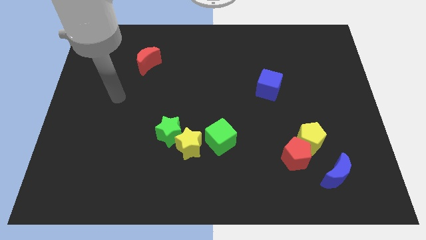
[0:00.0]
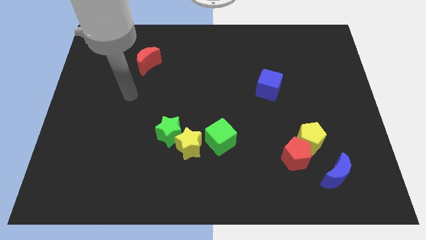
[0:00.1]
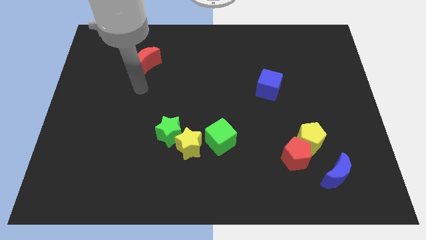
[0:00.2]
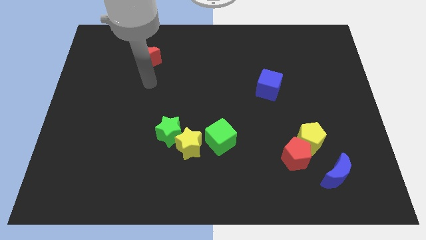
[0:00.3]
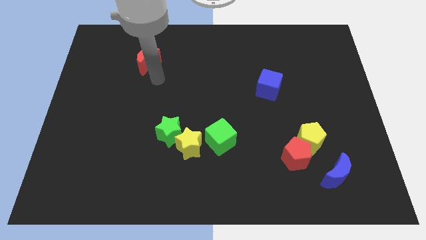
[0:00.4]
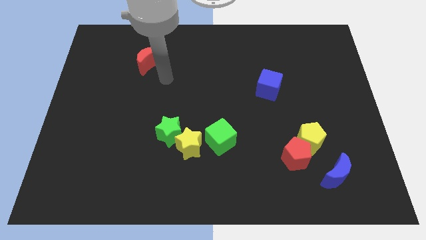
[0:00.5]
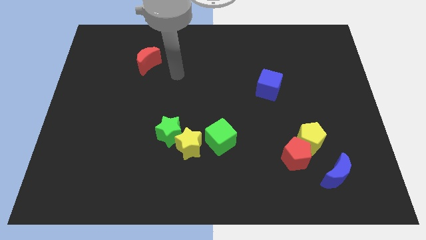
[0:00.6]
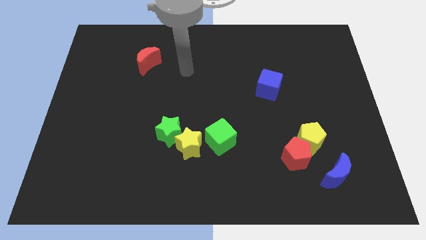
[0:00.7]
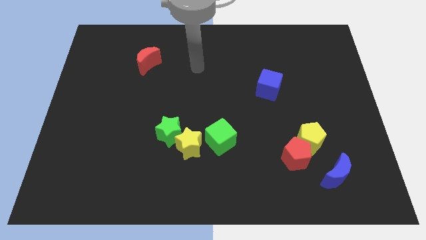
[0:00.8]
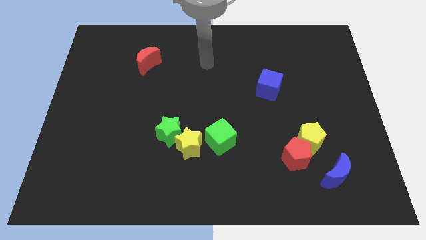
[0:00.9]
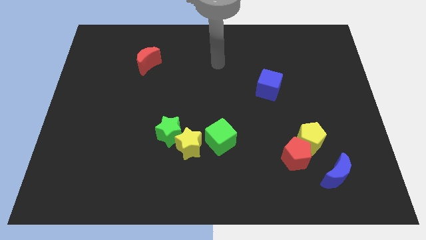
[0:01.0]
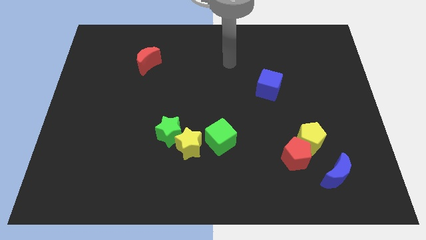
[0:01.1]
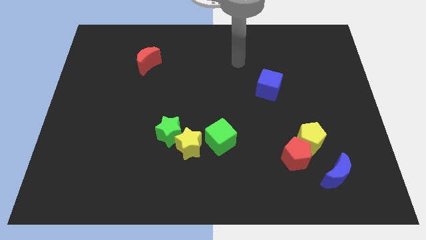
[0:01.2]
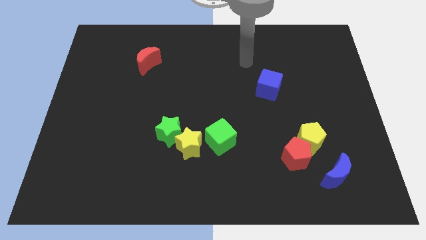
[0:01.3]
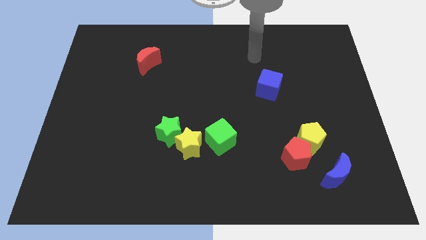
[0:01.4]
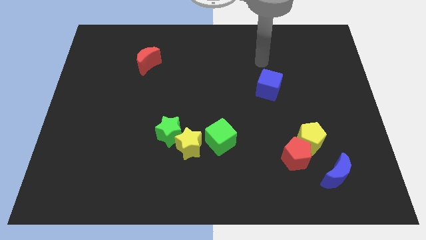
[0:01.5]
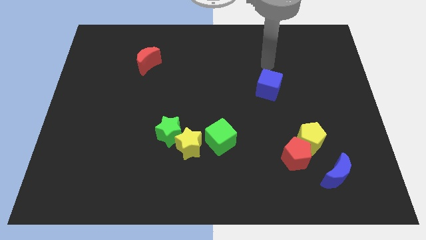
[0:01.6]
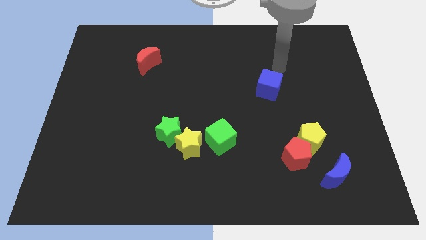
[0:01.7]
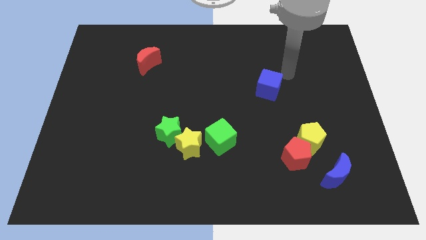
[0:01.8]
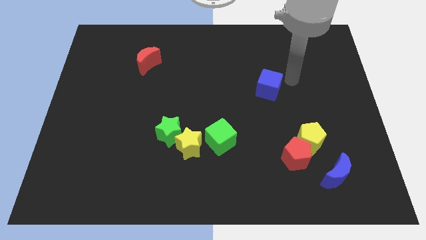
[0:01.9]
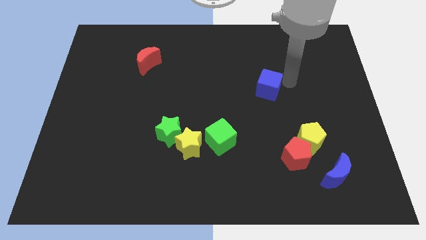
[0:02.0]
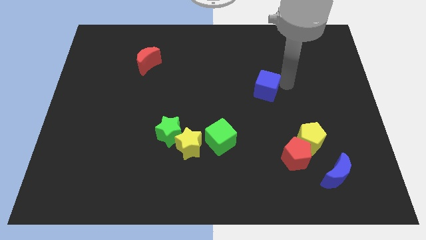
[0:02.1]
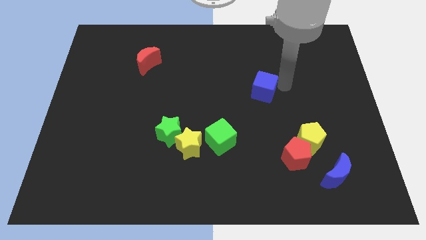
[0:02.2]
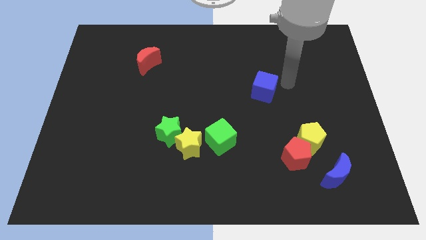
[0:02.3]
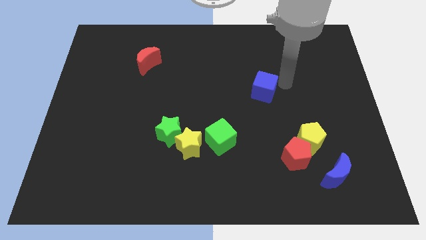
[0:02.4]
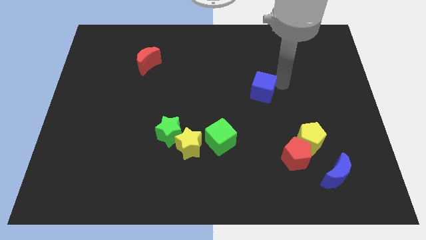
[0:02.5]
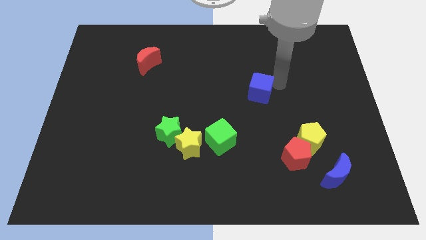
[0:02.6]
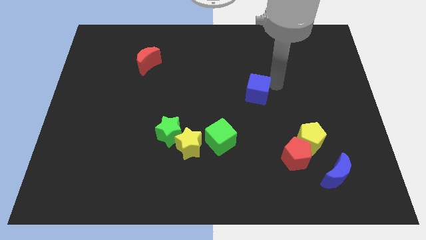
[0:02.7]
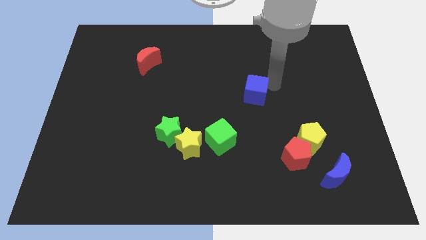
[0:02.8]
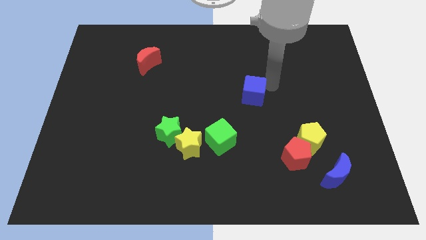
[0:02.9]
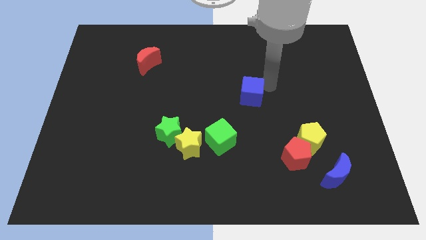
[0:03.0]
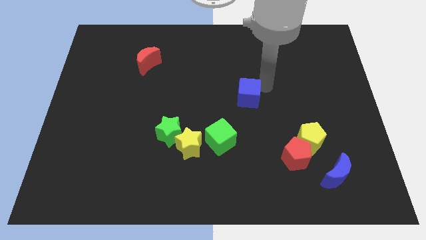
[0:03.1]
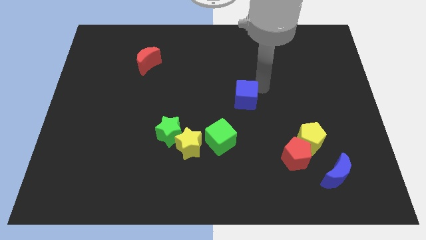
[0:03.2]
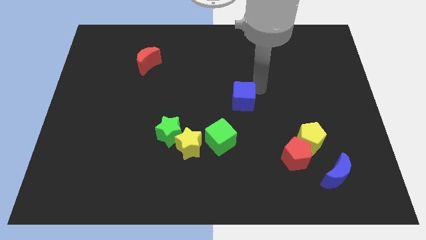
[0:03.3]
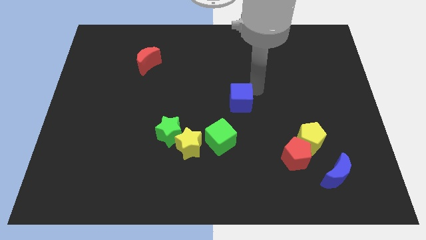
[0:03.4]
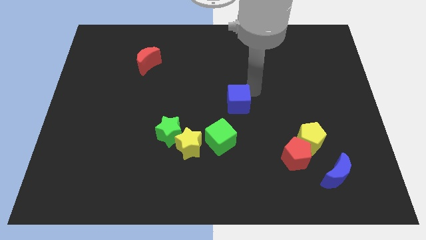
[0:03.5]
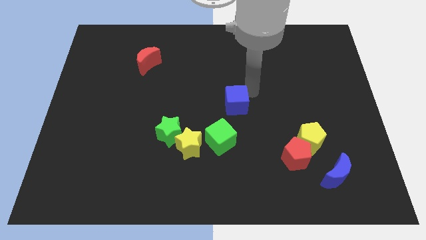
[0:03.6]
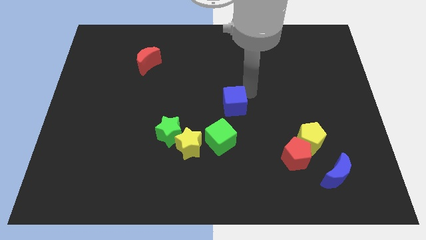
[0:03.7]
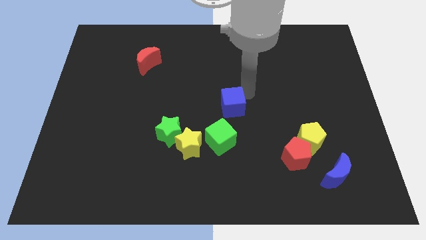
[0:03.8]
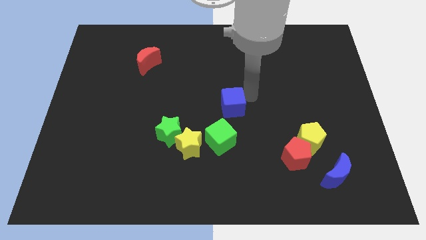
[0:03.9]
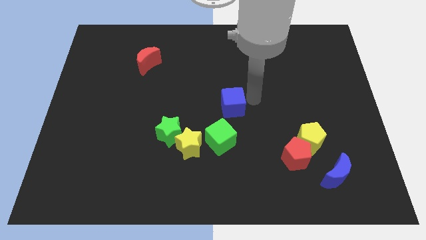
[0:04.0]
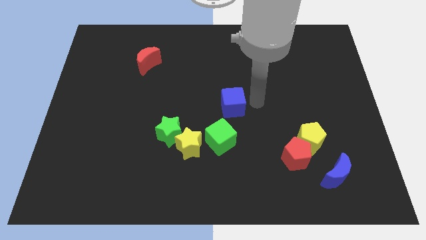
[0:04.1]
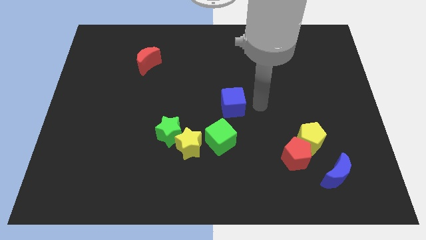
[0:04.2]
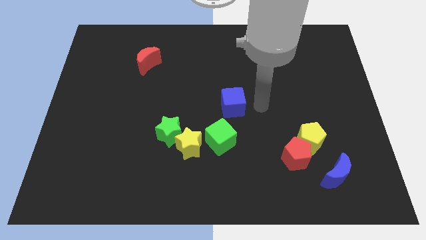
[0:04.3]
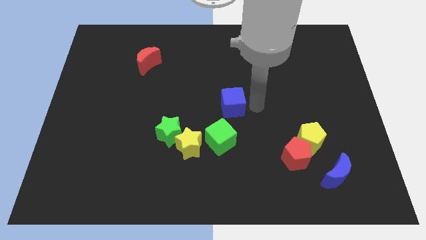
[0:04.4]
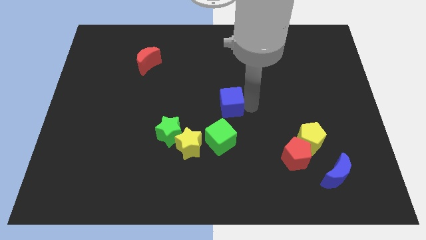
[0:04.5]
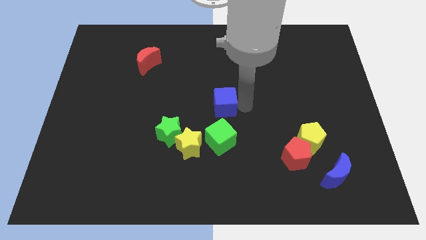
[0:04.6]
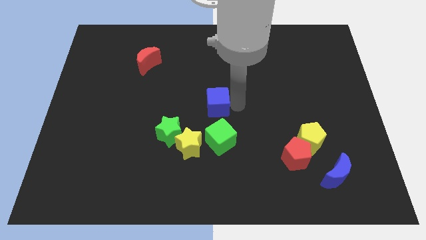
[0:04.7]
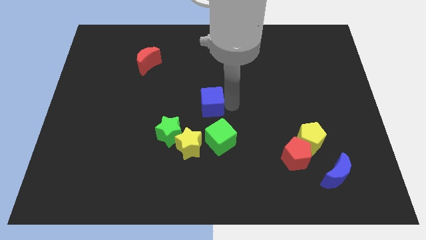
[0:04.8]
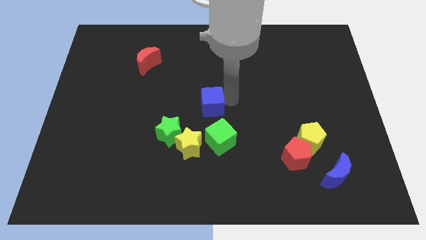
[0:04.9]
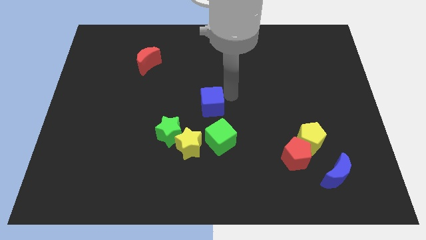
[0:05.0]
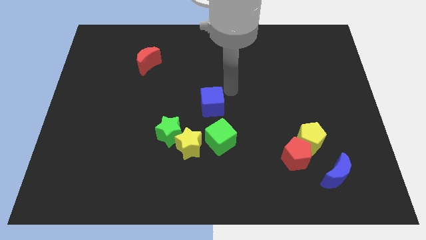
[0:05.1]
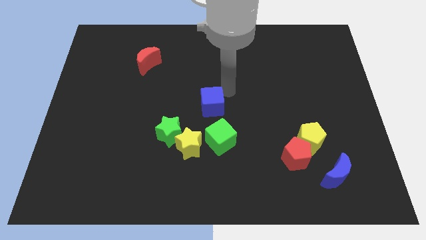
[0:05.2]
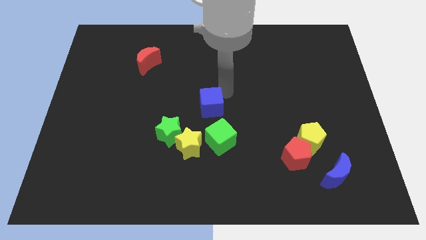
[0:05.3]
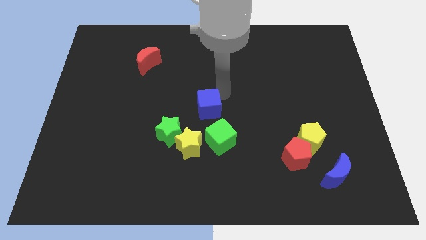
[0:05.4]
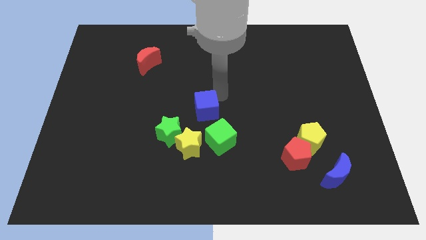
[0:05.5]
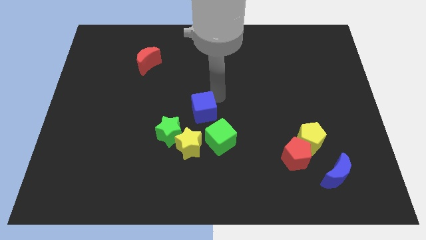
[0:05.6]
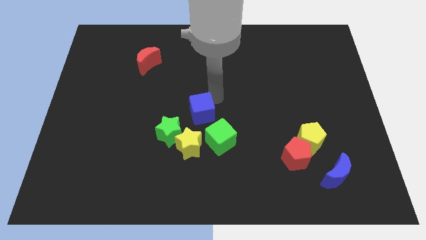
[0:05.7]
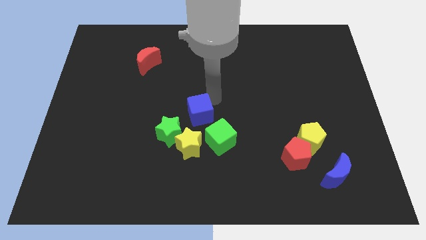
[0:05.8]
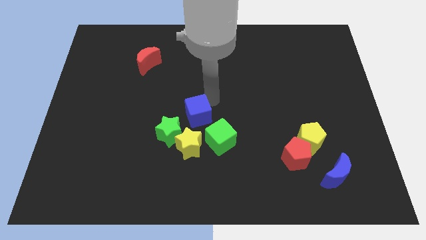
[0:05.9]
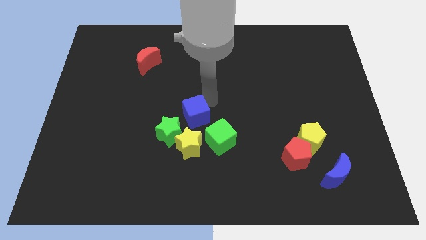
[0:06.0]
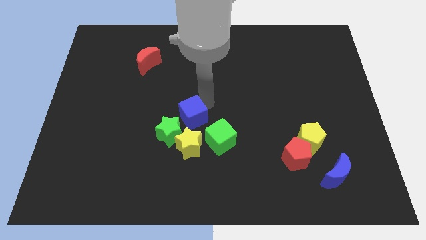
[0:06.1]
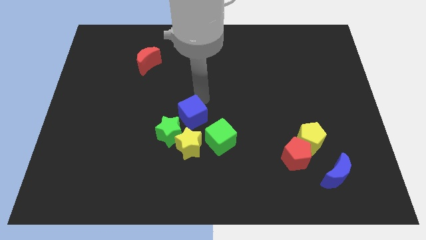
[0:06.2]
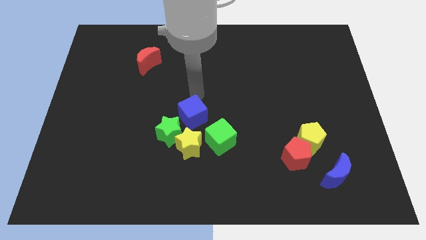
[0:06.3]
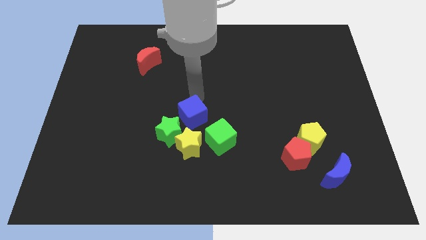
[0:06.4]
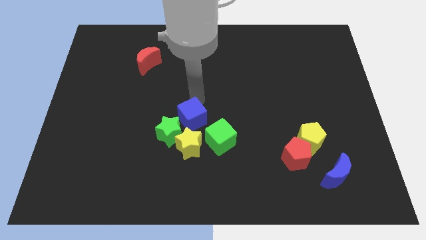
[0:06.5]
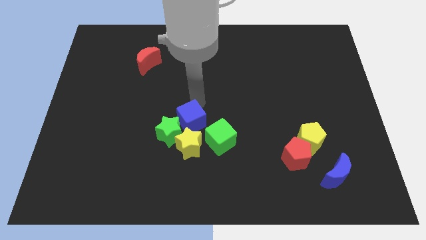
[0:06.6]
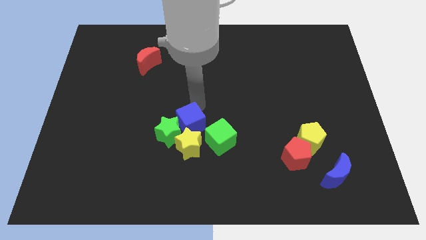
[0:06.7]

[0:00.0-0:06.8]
push the blue cube next to the yellow star

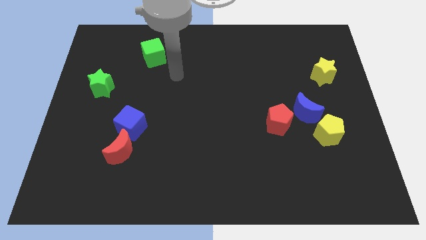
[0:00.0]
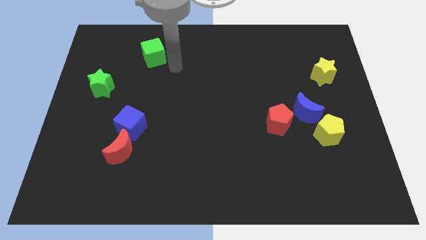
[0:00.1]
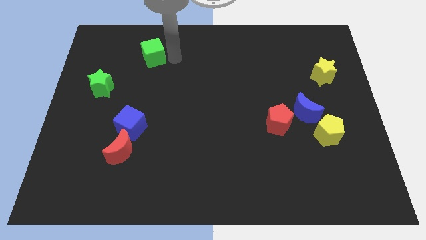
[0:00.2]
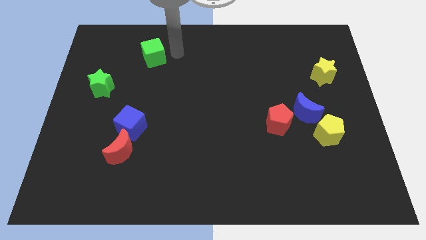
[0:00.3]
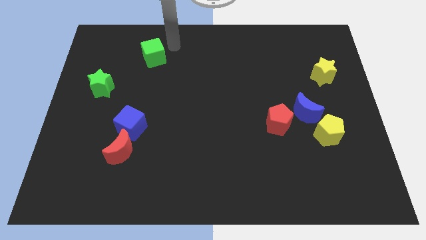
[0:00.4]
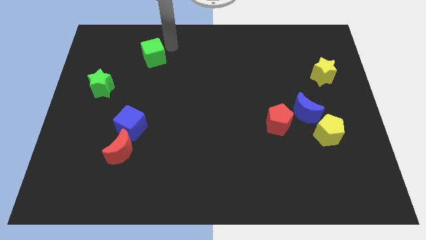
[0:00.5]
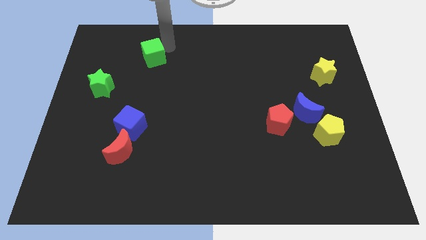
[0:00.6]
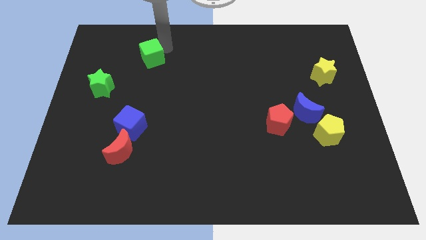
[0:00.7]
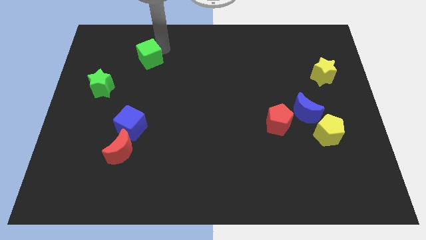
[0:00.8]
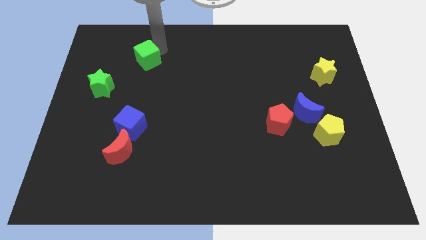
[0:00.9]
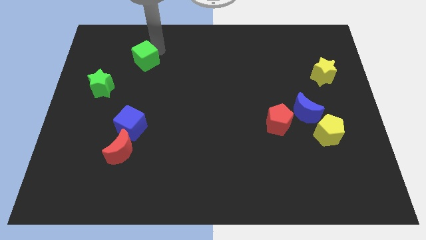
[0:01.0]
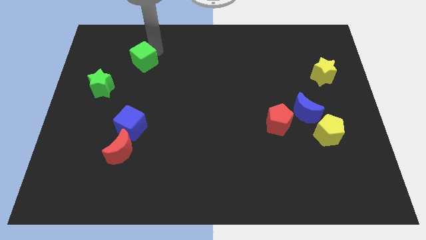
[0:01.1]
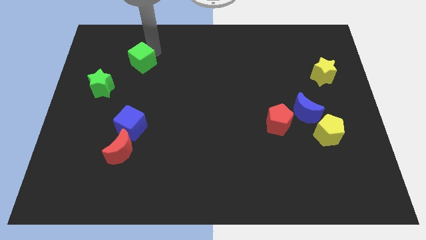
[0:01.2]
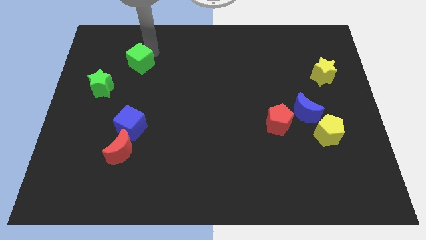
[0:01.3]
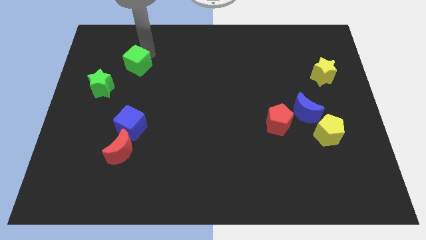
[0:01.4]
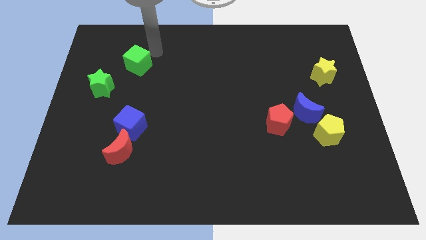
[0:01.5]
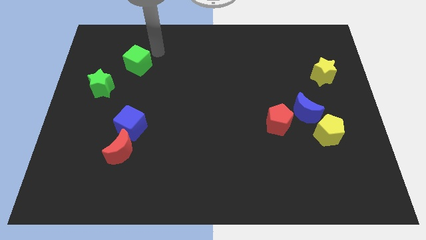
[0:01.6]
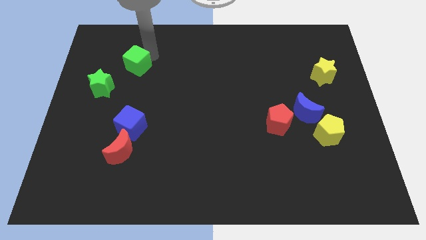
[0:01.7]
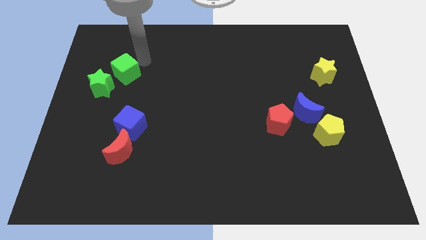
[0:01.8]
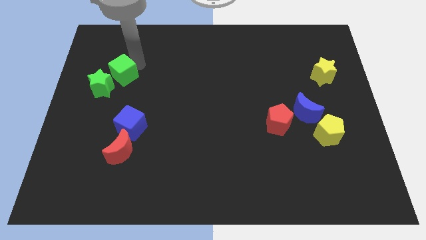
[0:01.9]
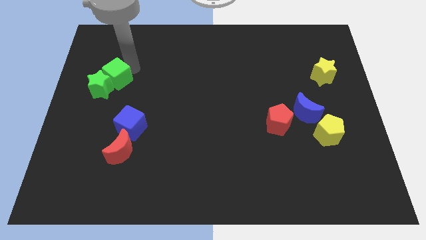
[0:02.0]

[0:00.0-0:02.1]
push the green cube towards the green star
